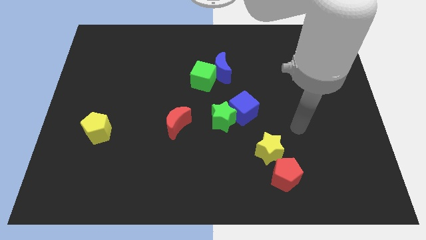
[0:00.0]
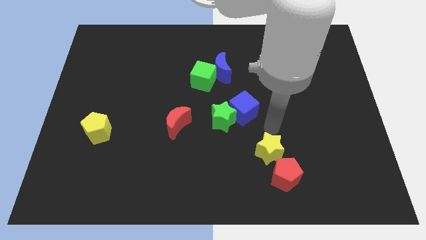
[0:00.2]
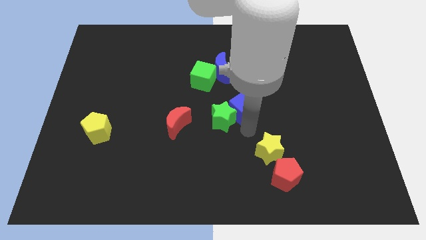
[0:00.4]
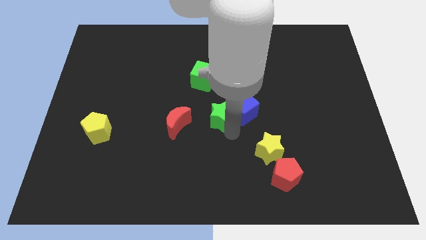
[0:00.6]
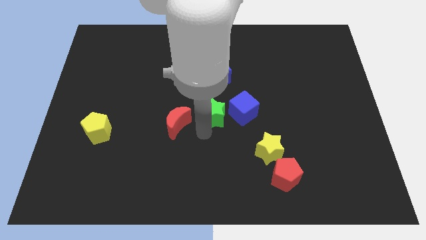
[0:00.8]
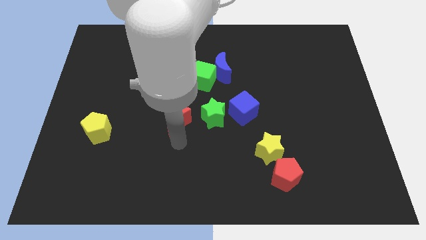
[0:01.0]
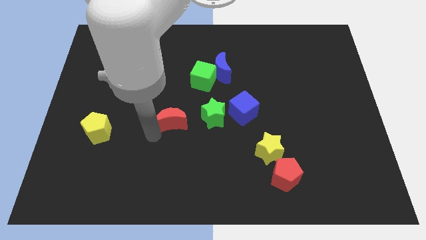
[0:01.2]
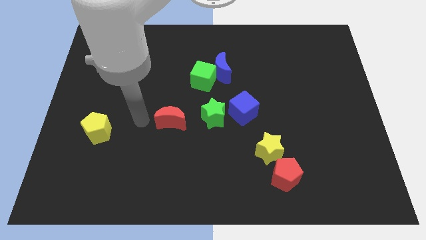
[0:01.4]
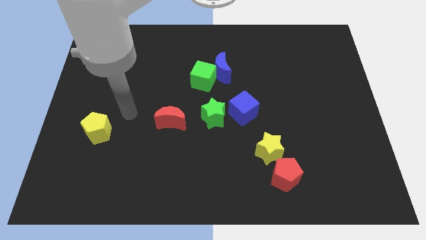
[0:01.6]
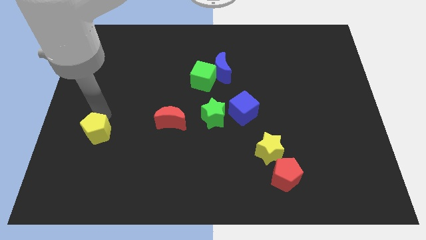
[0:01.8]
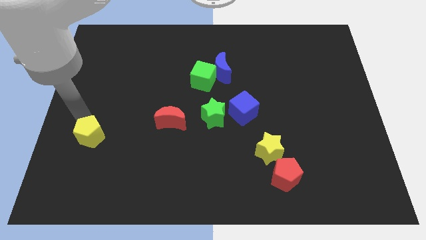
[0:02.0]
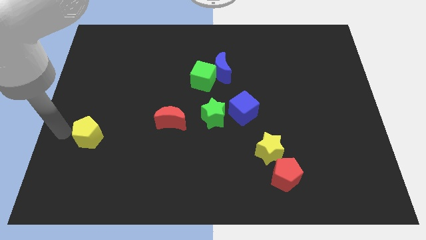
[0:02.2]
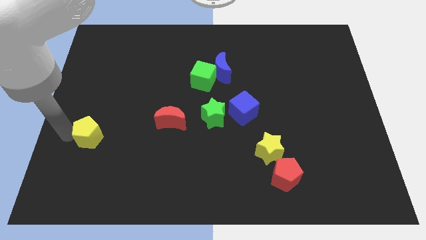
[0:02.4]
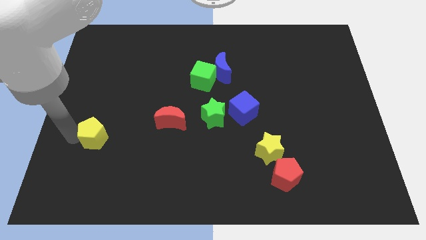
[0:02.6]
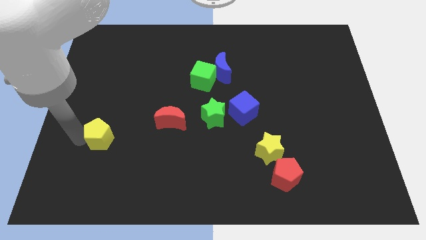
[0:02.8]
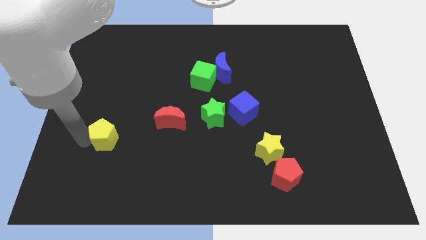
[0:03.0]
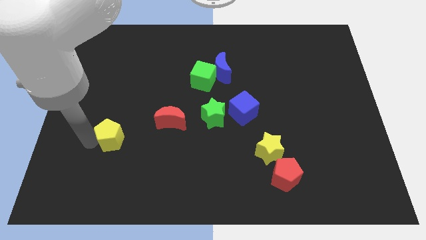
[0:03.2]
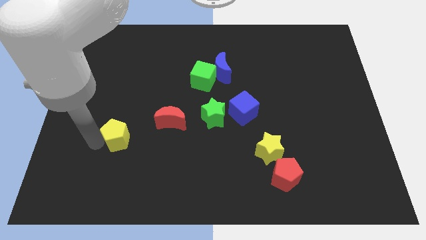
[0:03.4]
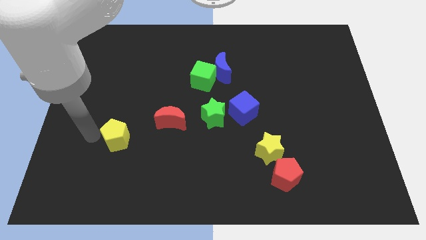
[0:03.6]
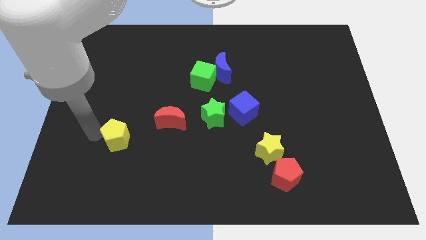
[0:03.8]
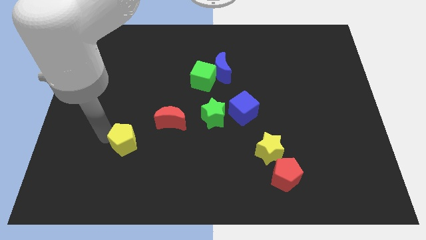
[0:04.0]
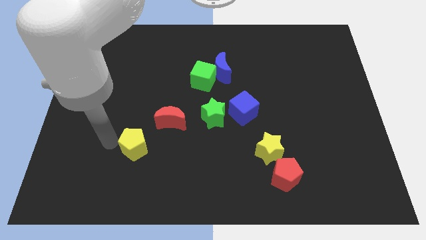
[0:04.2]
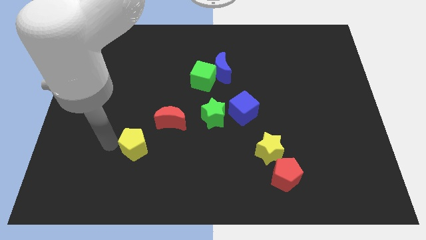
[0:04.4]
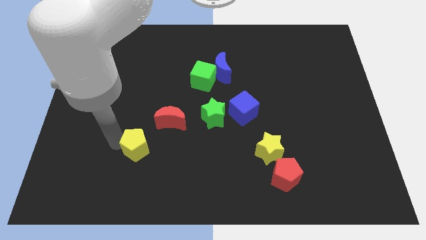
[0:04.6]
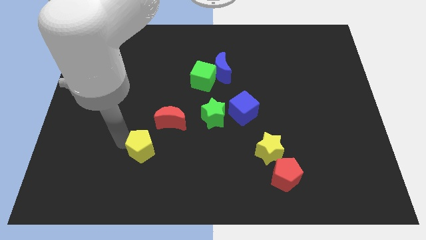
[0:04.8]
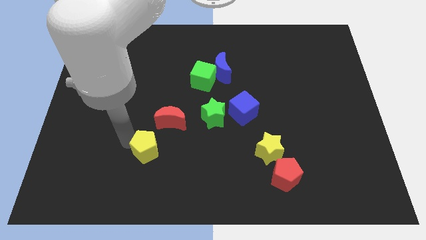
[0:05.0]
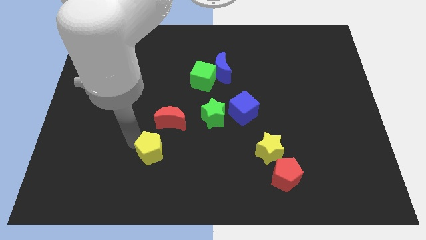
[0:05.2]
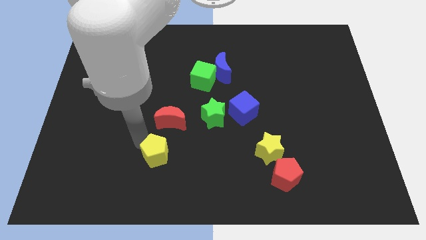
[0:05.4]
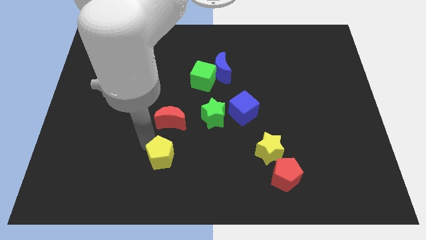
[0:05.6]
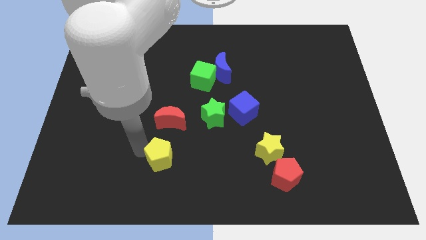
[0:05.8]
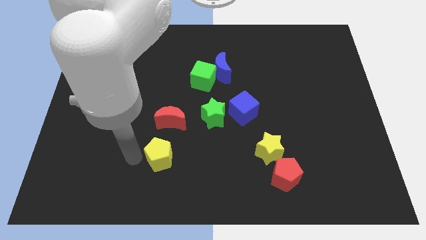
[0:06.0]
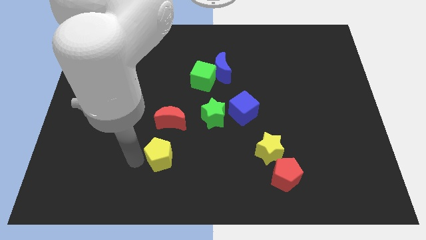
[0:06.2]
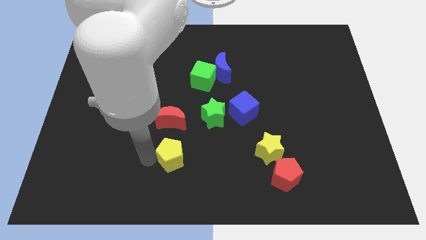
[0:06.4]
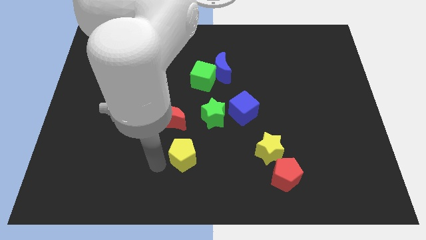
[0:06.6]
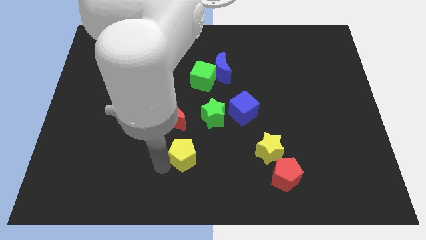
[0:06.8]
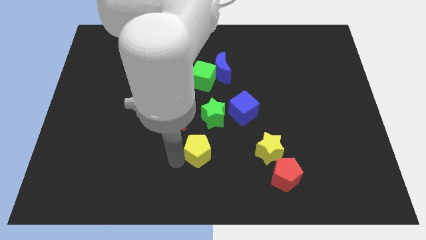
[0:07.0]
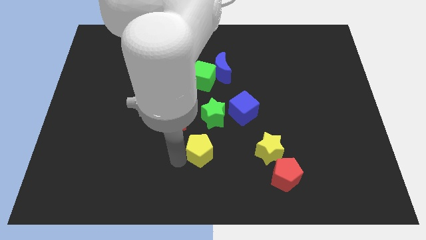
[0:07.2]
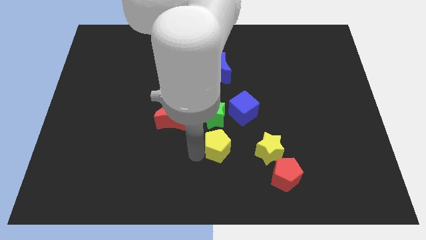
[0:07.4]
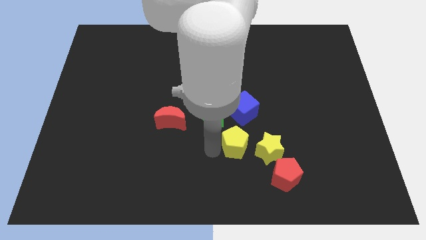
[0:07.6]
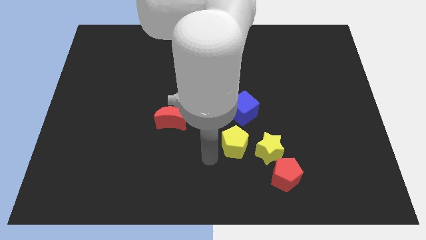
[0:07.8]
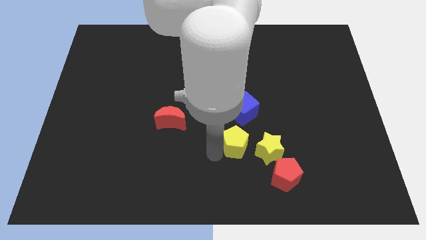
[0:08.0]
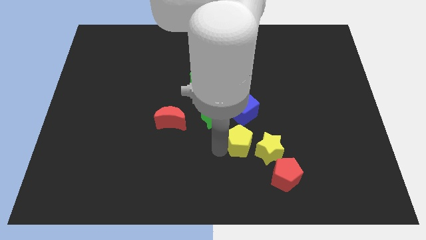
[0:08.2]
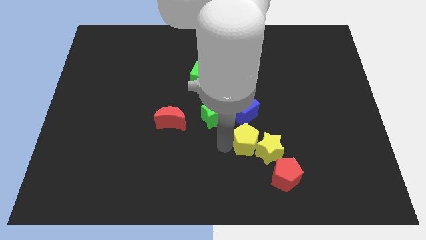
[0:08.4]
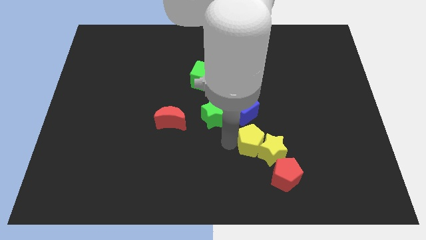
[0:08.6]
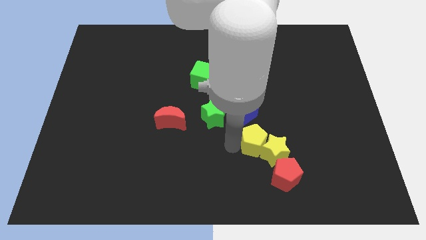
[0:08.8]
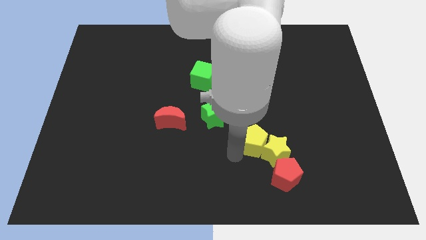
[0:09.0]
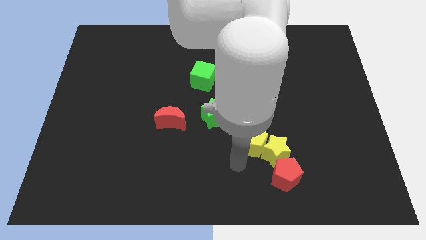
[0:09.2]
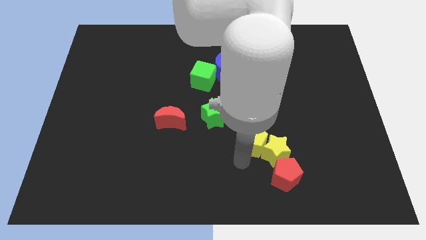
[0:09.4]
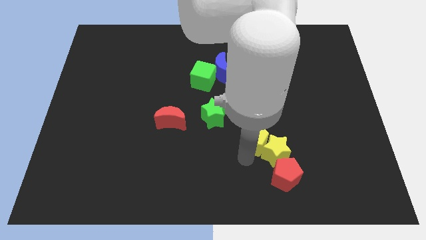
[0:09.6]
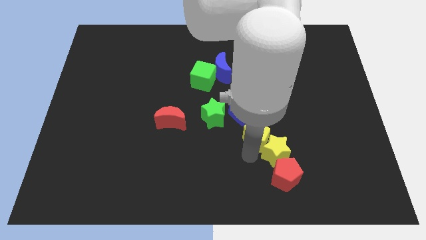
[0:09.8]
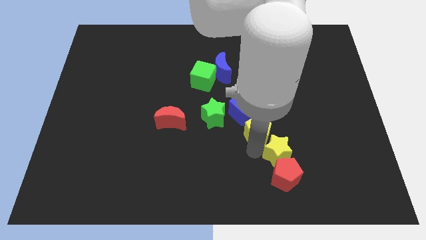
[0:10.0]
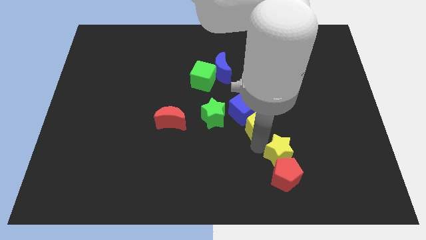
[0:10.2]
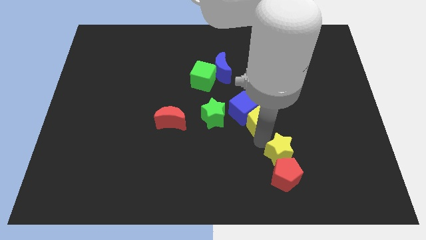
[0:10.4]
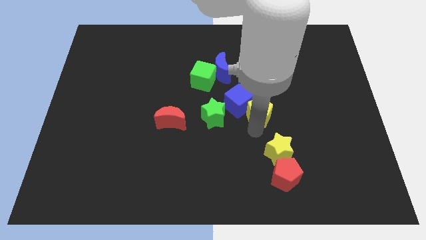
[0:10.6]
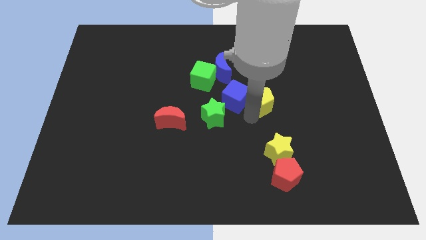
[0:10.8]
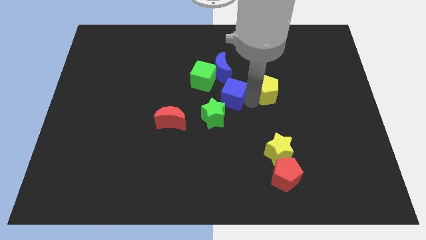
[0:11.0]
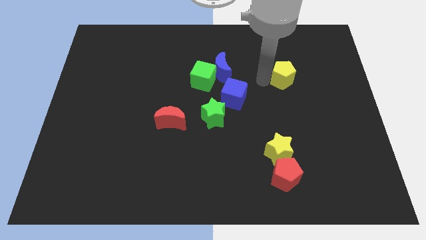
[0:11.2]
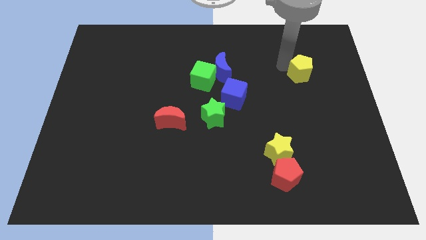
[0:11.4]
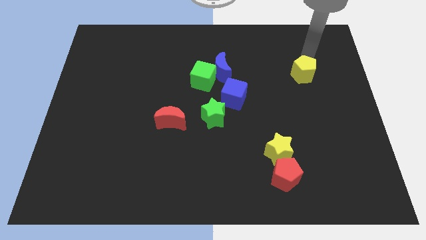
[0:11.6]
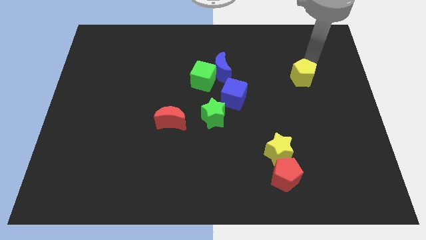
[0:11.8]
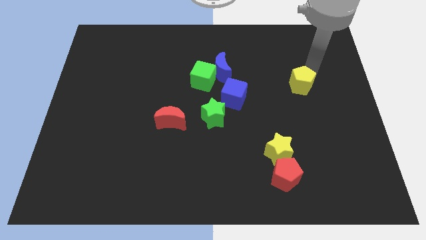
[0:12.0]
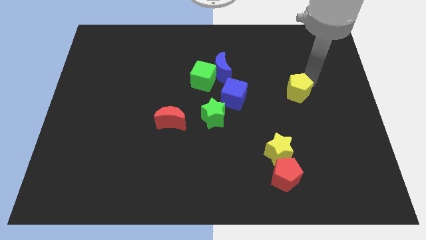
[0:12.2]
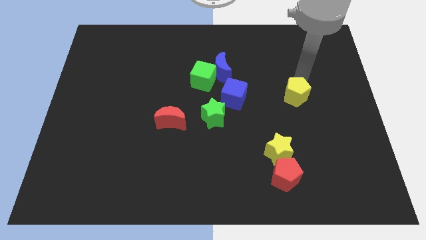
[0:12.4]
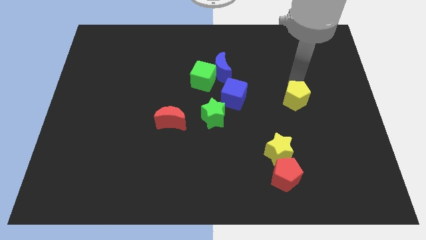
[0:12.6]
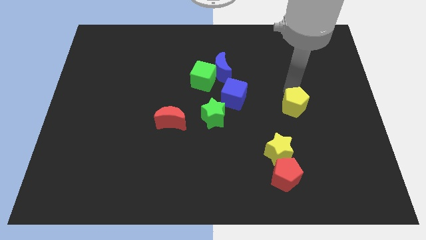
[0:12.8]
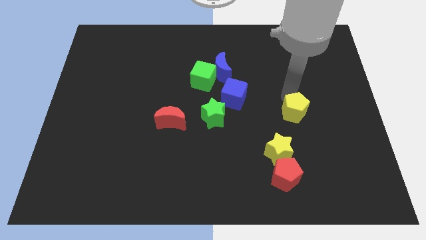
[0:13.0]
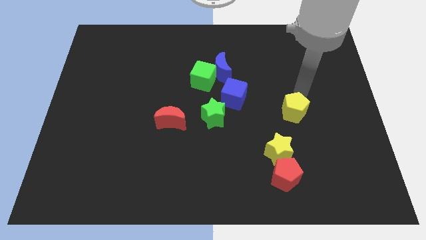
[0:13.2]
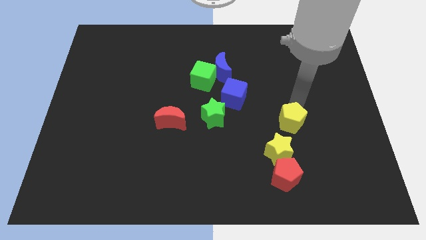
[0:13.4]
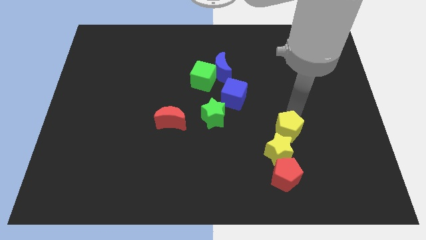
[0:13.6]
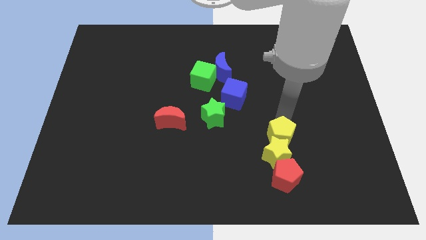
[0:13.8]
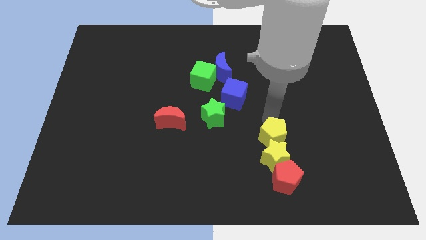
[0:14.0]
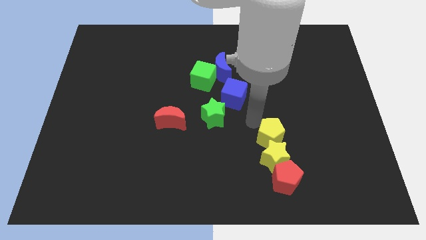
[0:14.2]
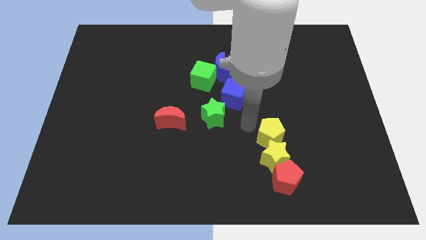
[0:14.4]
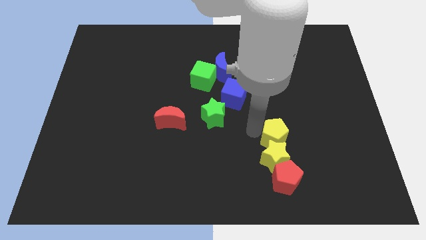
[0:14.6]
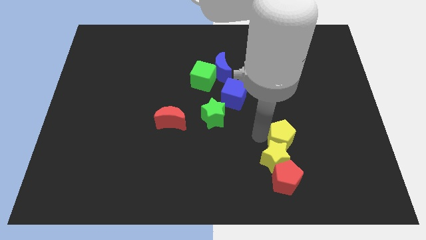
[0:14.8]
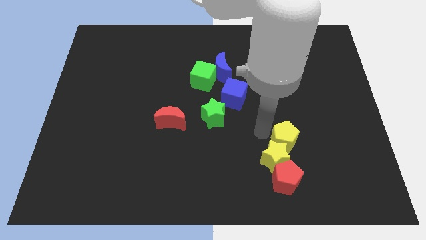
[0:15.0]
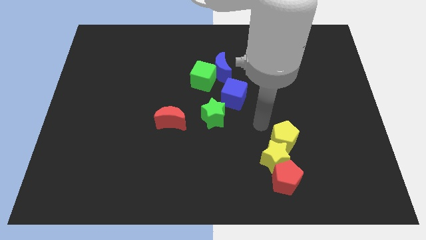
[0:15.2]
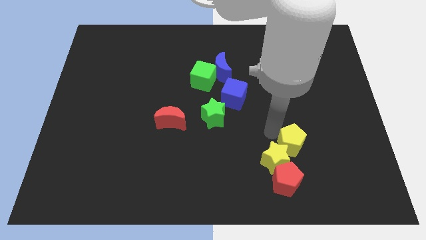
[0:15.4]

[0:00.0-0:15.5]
put the yellow pentagon to the top right of the red pentagon
